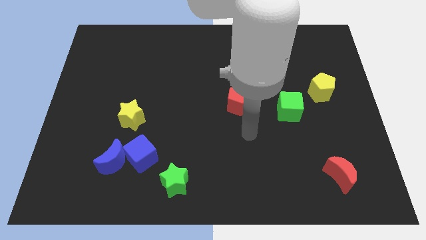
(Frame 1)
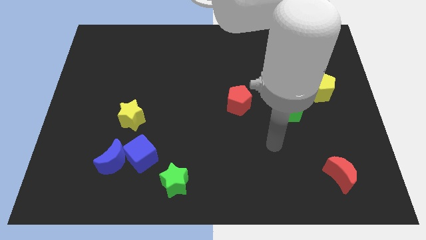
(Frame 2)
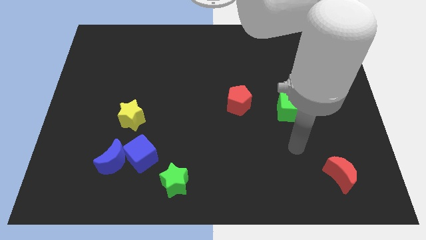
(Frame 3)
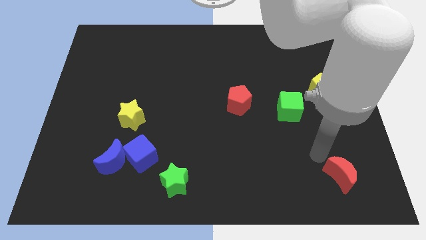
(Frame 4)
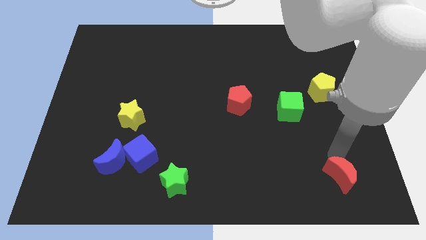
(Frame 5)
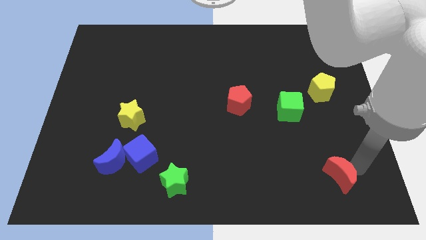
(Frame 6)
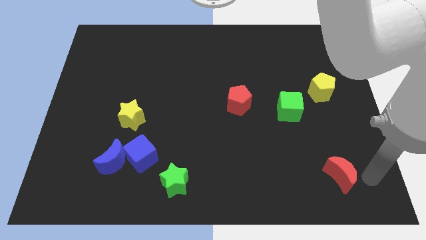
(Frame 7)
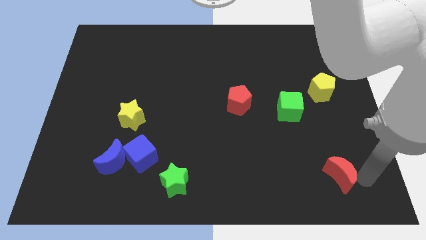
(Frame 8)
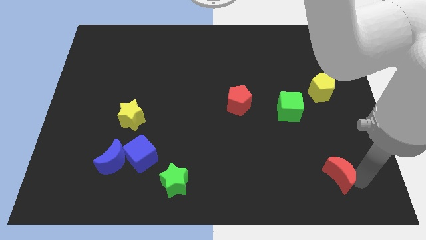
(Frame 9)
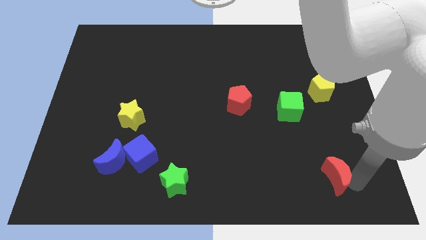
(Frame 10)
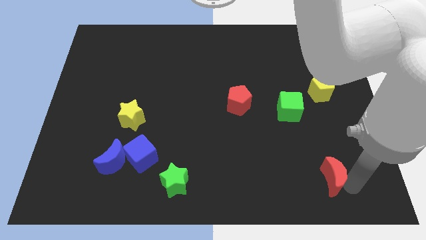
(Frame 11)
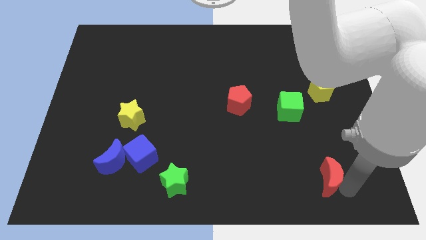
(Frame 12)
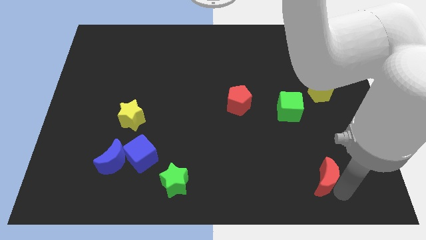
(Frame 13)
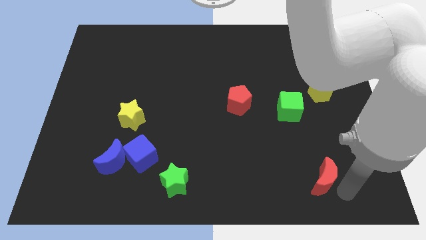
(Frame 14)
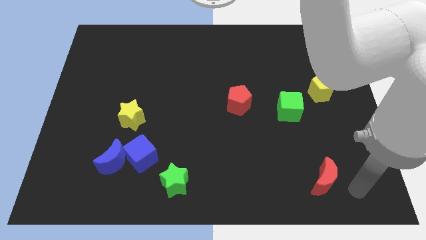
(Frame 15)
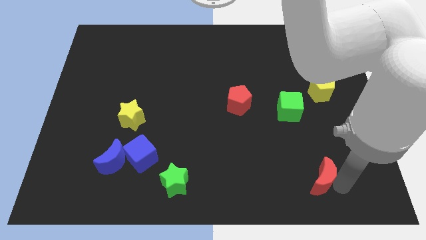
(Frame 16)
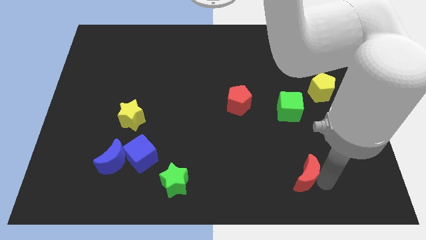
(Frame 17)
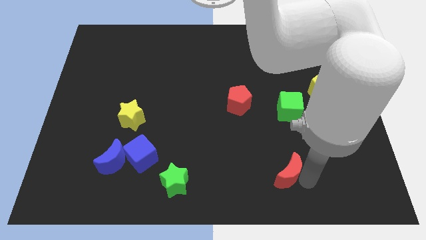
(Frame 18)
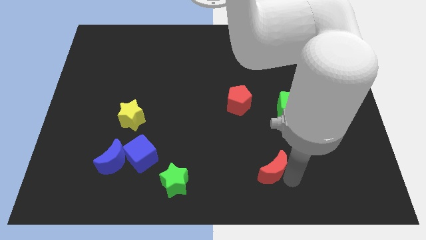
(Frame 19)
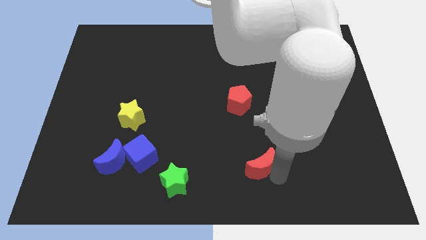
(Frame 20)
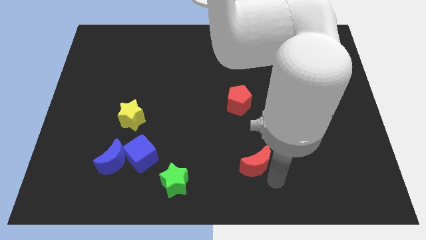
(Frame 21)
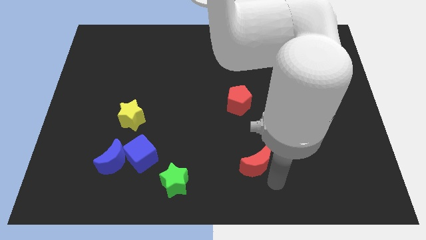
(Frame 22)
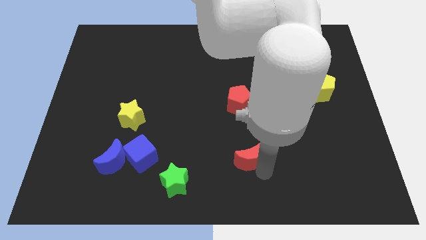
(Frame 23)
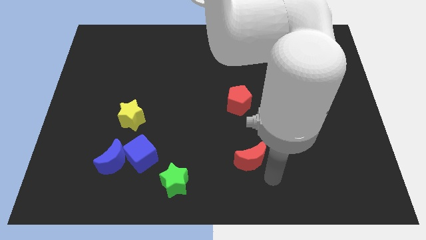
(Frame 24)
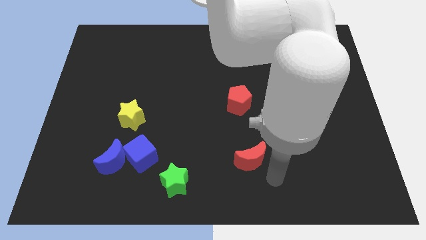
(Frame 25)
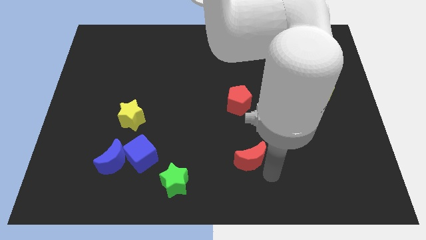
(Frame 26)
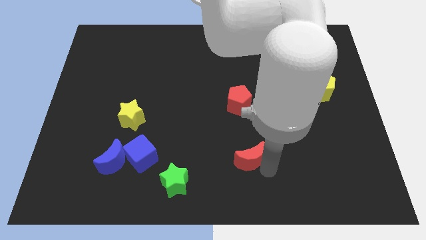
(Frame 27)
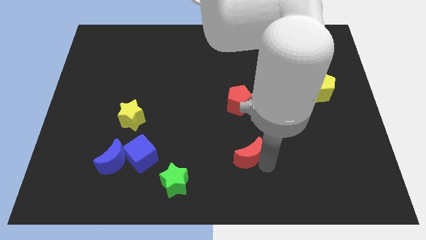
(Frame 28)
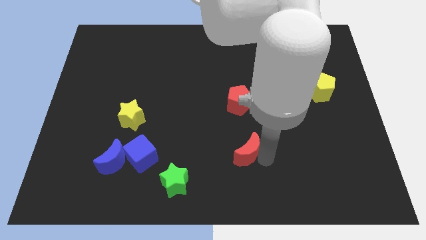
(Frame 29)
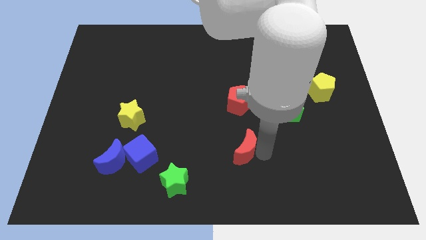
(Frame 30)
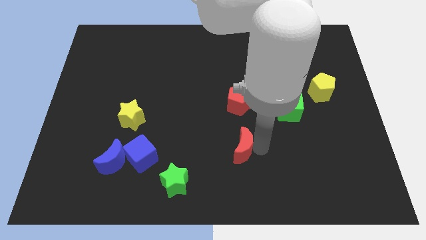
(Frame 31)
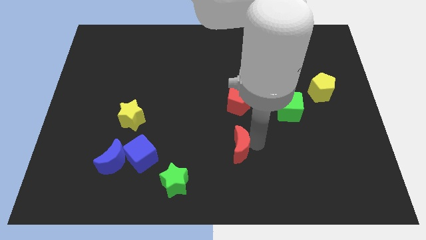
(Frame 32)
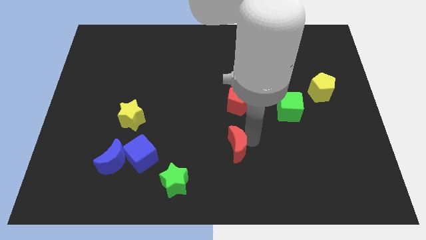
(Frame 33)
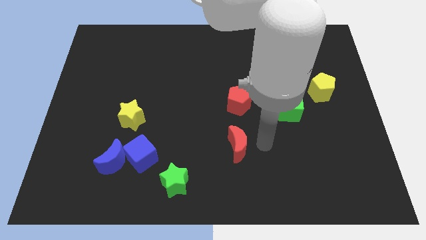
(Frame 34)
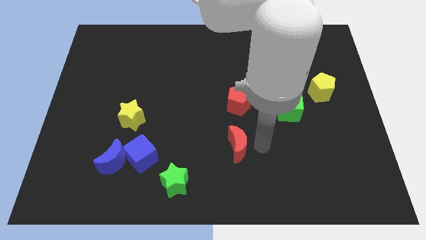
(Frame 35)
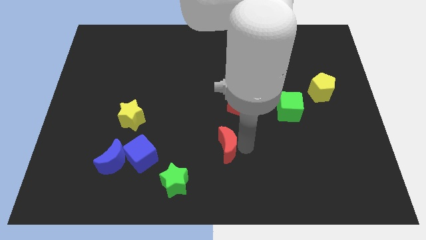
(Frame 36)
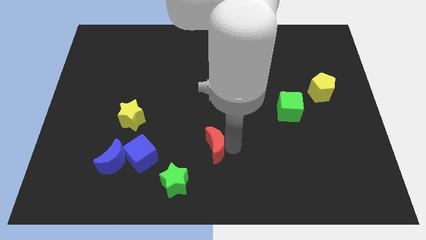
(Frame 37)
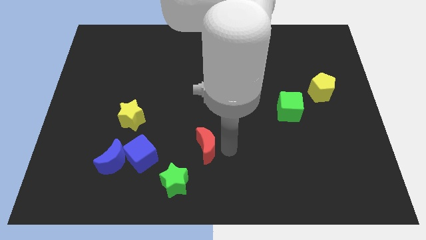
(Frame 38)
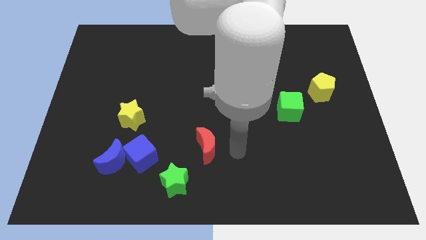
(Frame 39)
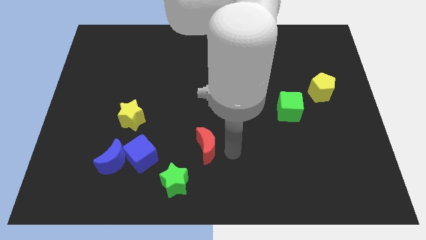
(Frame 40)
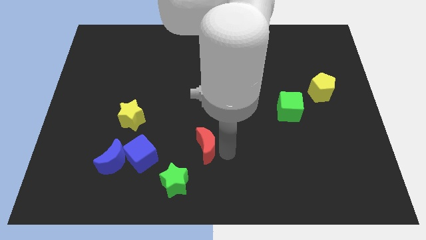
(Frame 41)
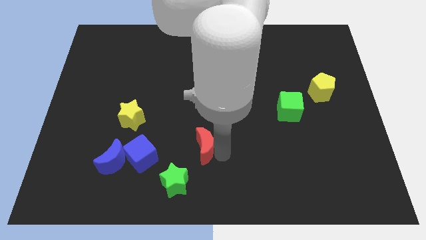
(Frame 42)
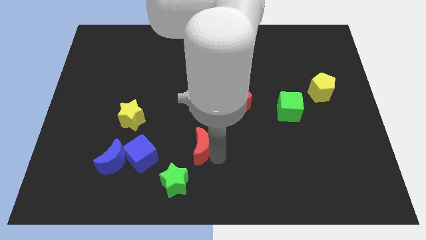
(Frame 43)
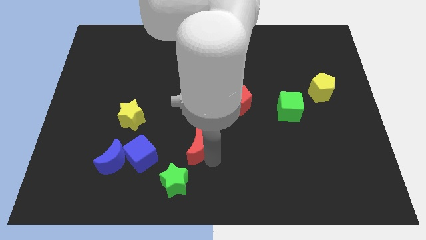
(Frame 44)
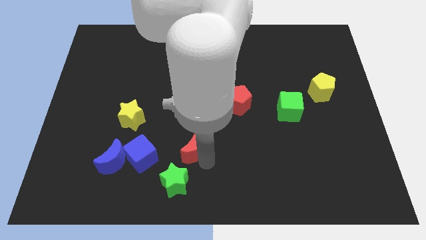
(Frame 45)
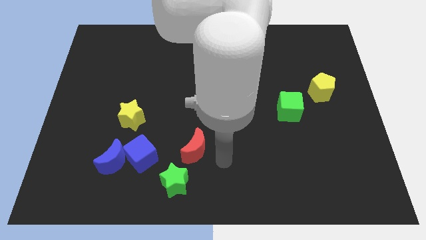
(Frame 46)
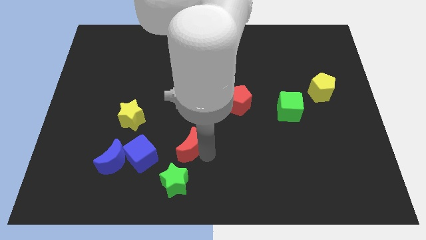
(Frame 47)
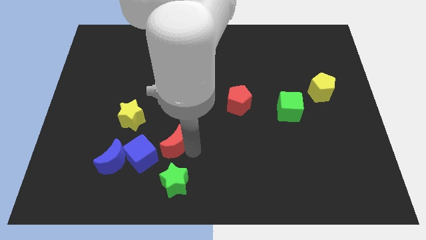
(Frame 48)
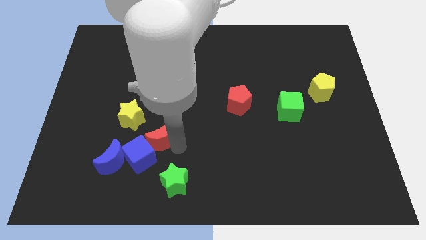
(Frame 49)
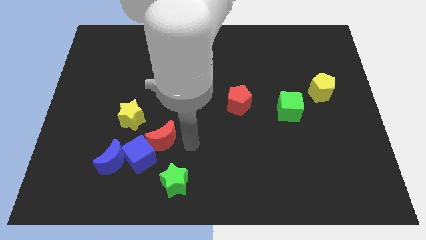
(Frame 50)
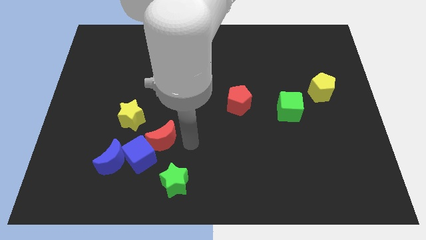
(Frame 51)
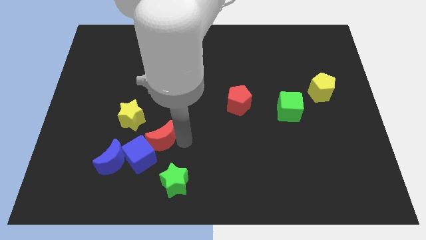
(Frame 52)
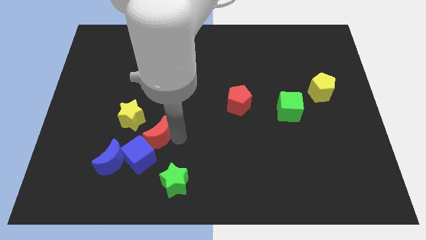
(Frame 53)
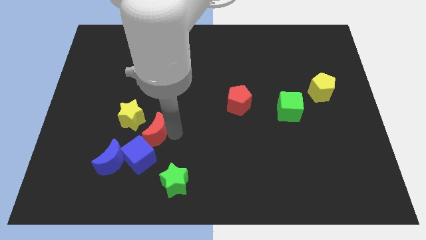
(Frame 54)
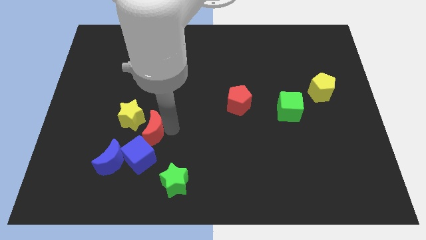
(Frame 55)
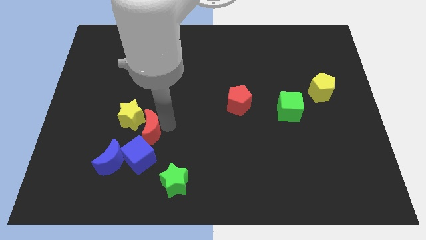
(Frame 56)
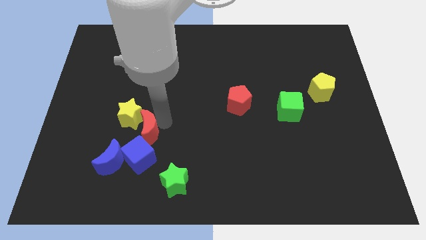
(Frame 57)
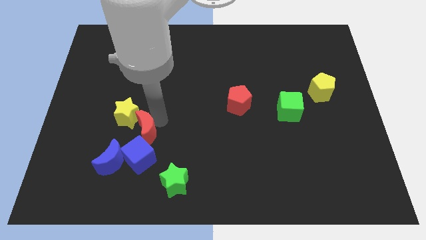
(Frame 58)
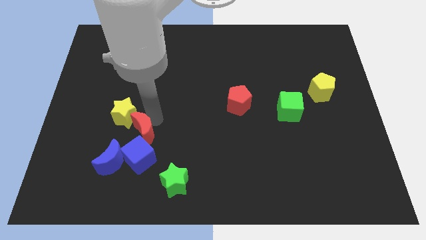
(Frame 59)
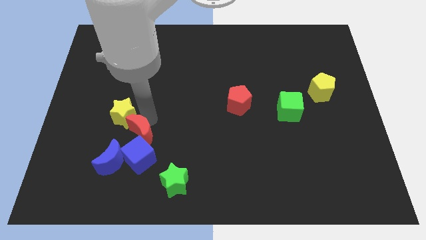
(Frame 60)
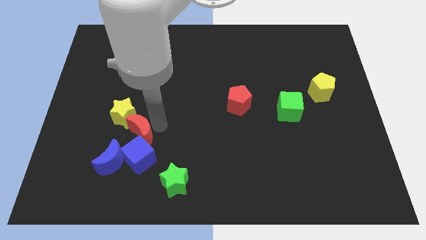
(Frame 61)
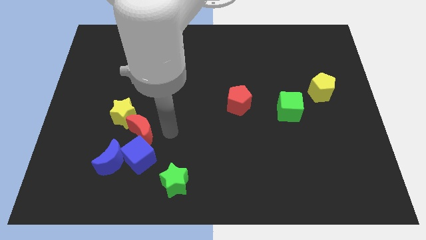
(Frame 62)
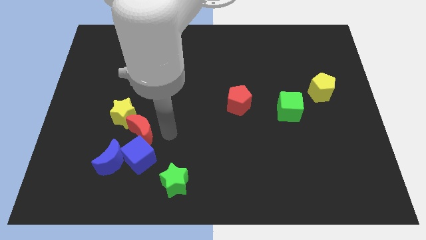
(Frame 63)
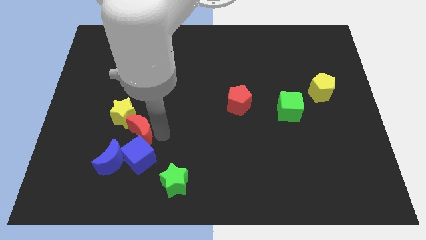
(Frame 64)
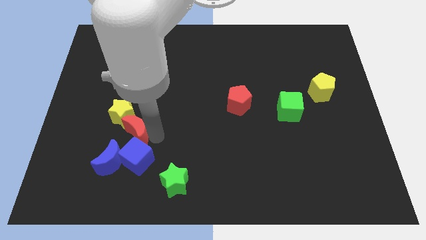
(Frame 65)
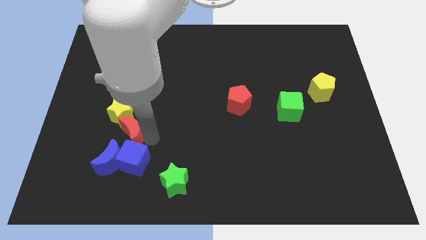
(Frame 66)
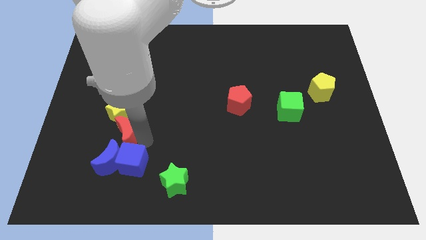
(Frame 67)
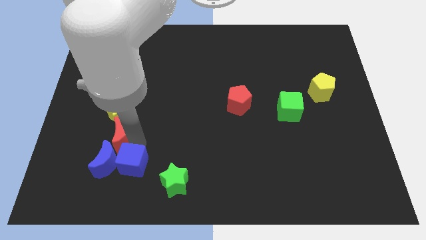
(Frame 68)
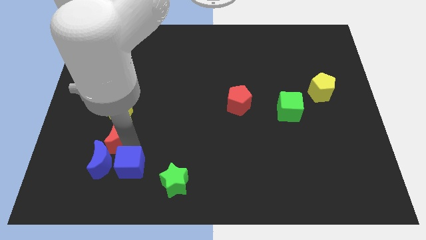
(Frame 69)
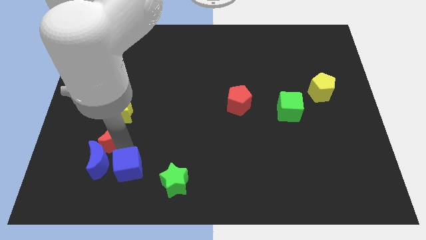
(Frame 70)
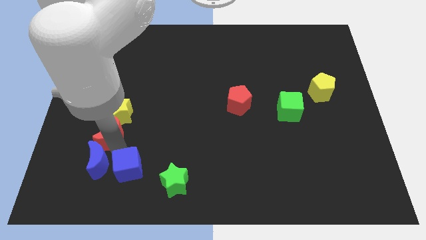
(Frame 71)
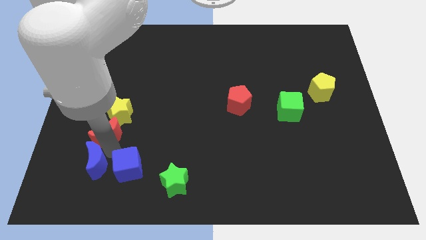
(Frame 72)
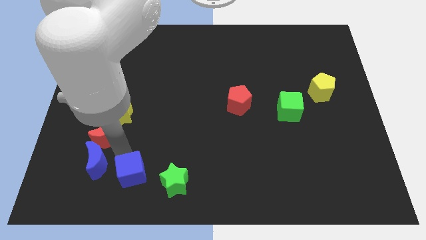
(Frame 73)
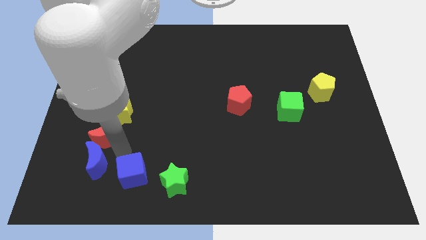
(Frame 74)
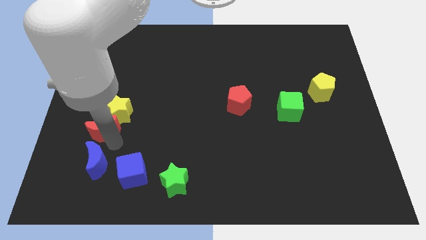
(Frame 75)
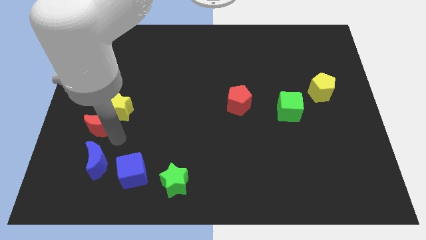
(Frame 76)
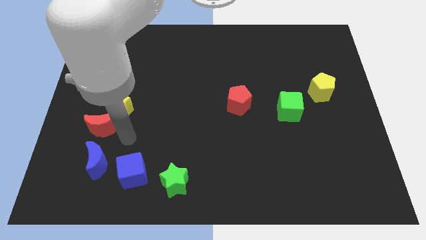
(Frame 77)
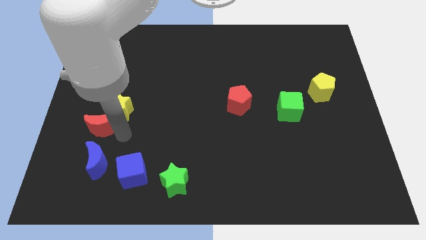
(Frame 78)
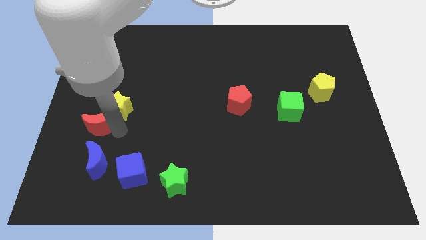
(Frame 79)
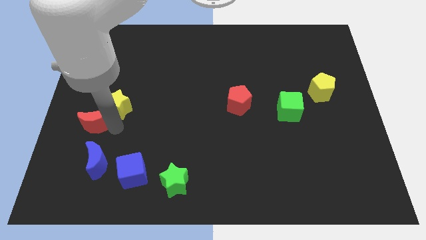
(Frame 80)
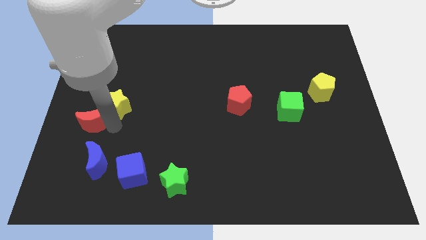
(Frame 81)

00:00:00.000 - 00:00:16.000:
move the red moon to the left side of the board
